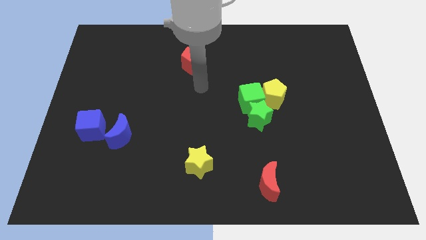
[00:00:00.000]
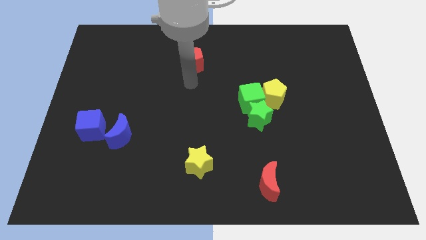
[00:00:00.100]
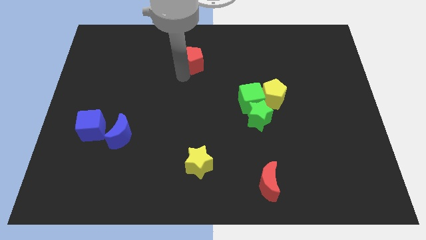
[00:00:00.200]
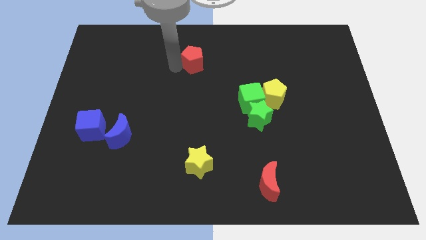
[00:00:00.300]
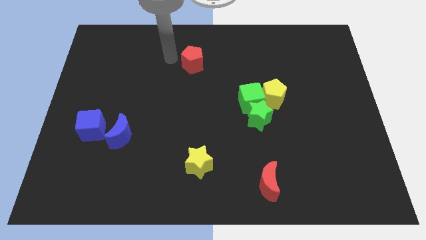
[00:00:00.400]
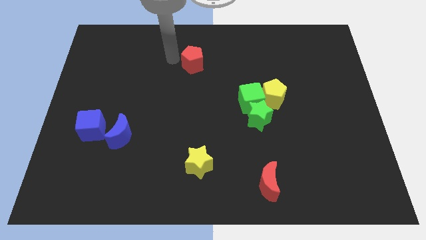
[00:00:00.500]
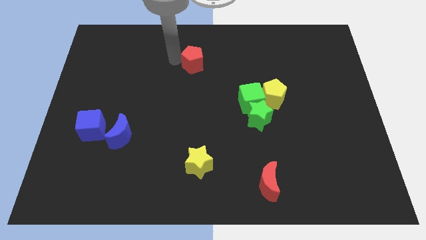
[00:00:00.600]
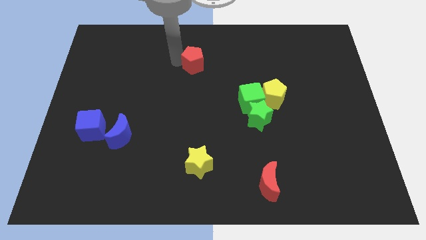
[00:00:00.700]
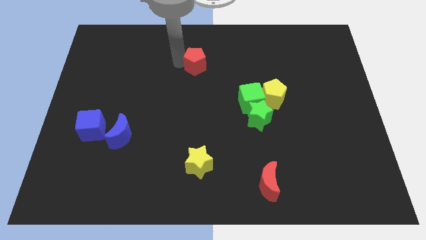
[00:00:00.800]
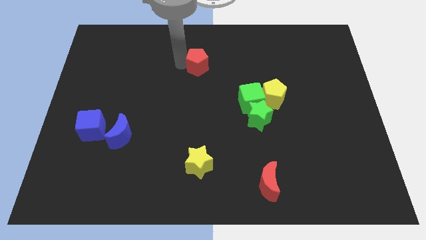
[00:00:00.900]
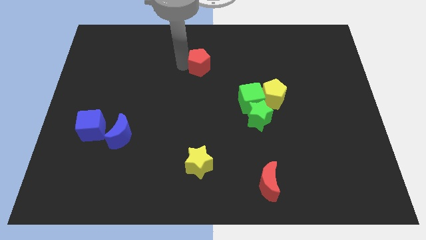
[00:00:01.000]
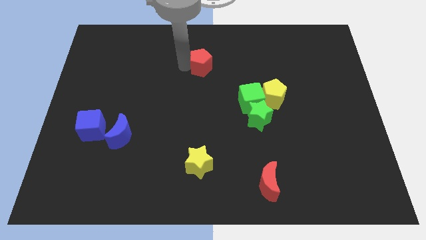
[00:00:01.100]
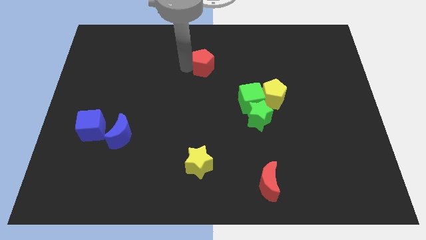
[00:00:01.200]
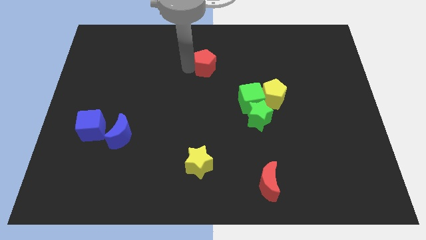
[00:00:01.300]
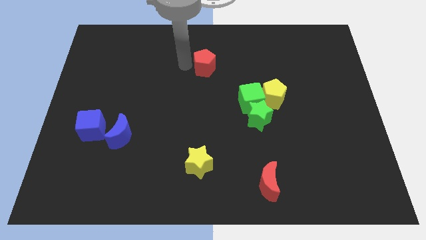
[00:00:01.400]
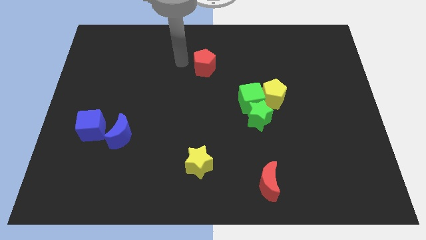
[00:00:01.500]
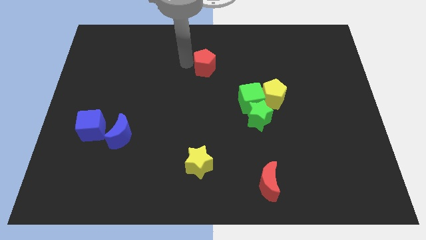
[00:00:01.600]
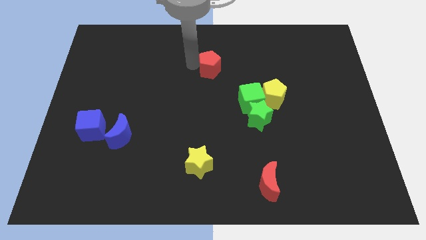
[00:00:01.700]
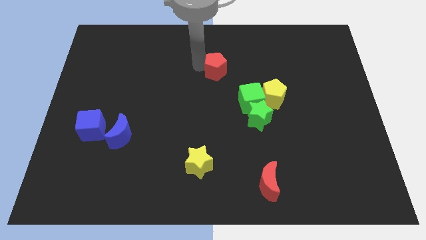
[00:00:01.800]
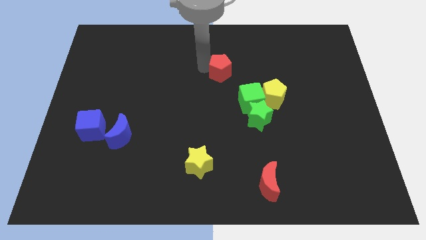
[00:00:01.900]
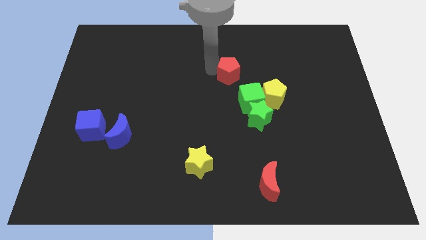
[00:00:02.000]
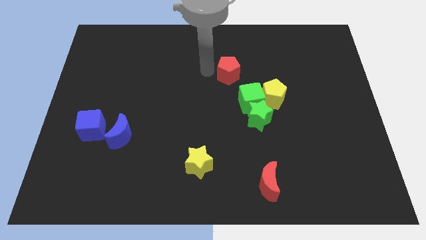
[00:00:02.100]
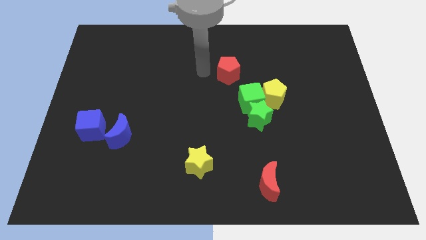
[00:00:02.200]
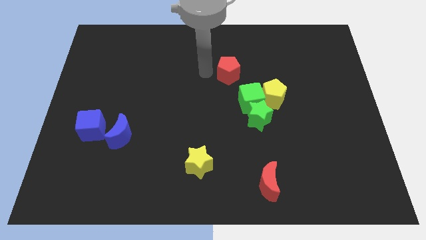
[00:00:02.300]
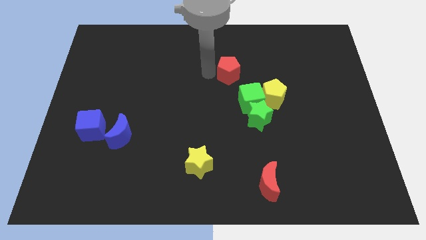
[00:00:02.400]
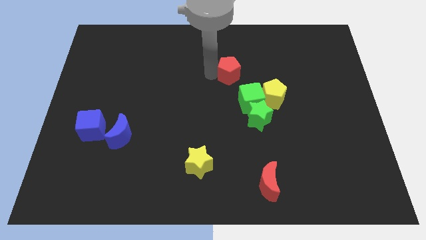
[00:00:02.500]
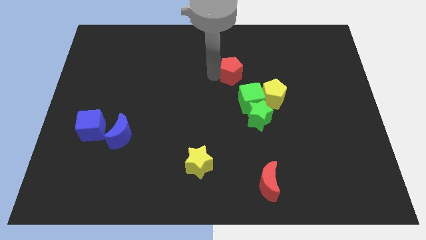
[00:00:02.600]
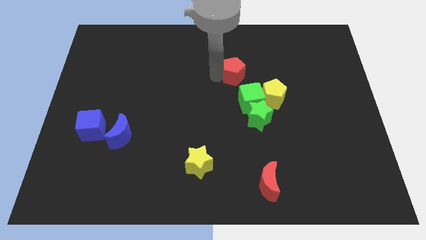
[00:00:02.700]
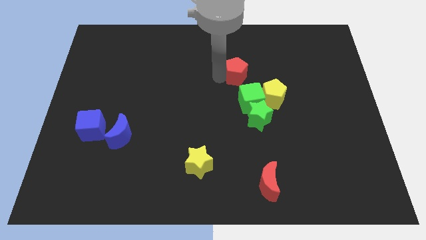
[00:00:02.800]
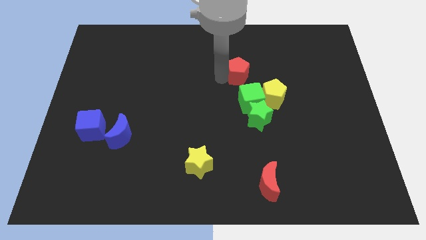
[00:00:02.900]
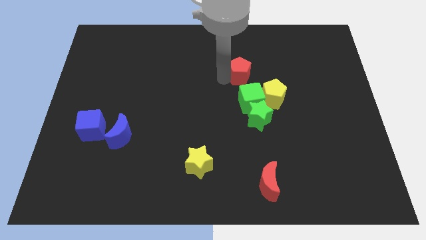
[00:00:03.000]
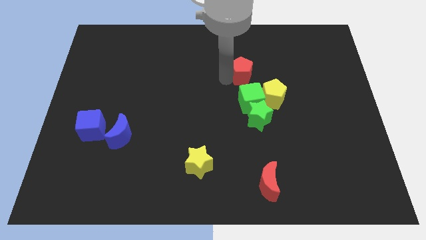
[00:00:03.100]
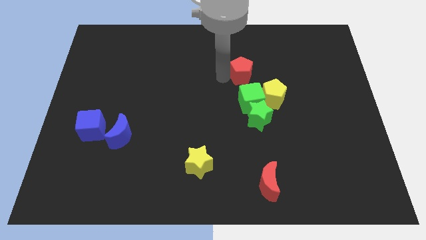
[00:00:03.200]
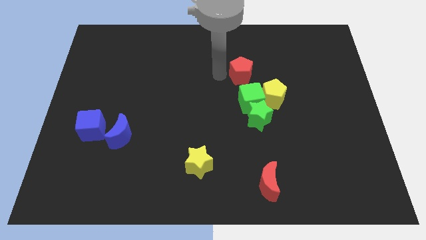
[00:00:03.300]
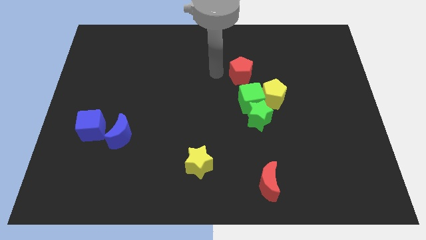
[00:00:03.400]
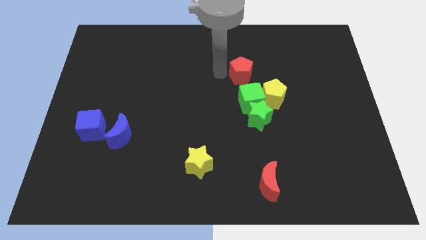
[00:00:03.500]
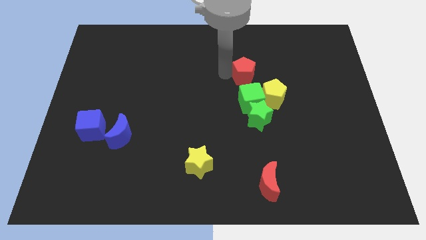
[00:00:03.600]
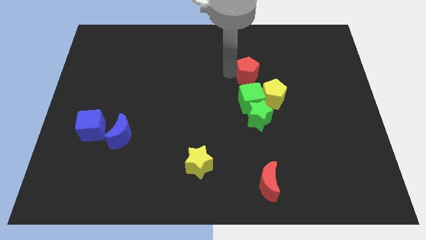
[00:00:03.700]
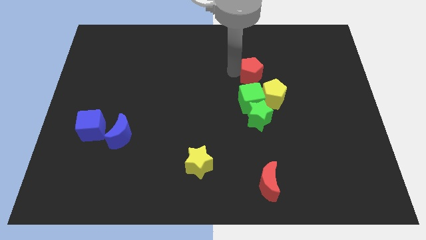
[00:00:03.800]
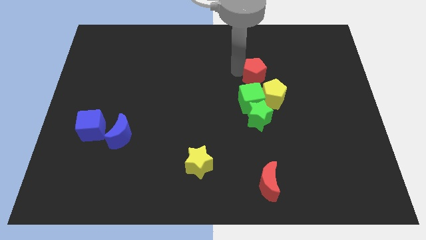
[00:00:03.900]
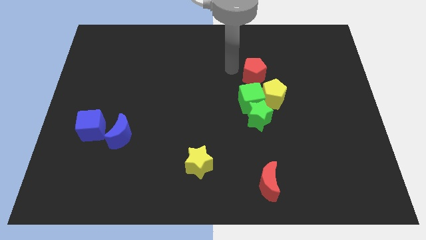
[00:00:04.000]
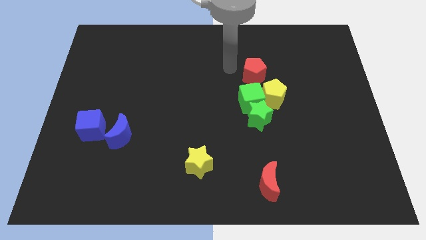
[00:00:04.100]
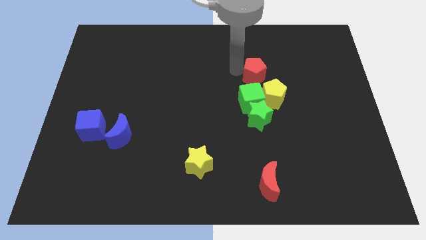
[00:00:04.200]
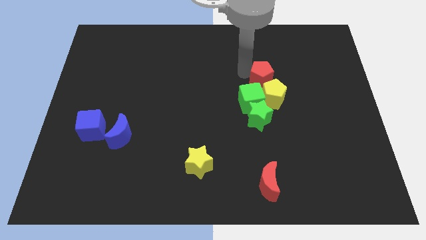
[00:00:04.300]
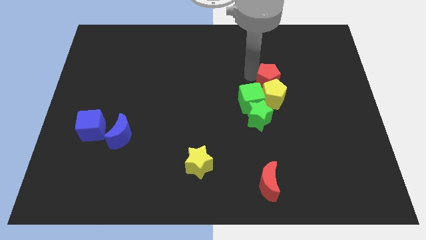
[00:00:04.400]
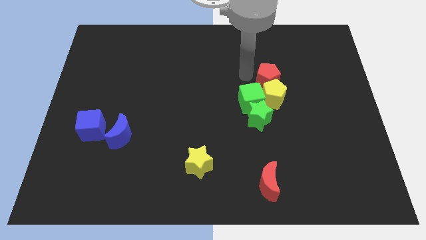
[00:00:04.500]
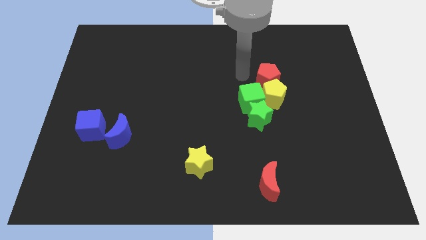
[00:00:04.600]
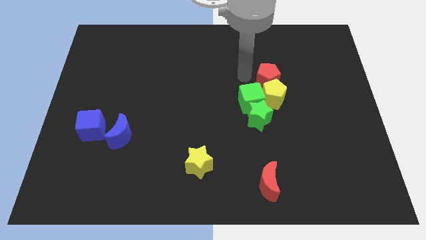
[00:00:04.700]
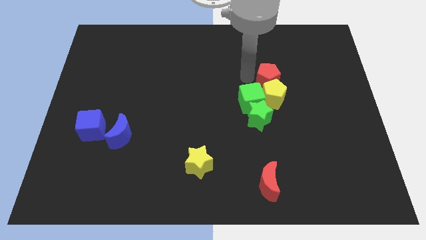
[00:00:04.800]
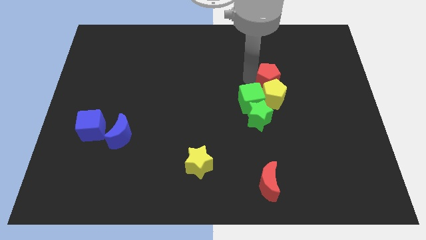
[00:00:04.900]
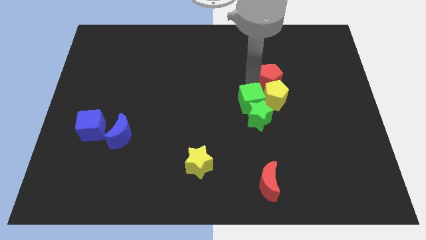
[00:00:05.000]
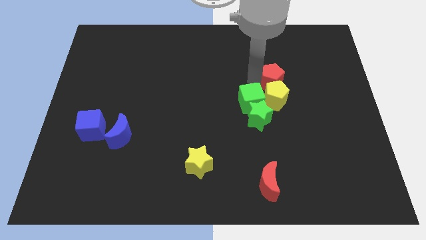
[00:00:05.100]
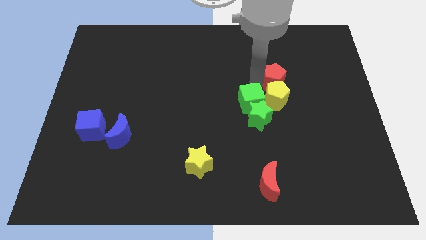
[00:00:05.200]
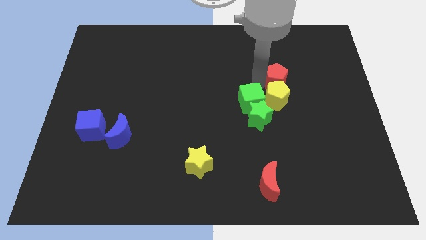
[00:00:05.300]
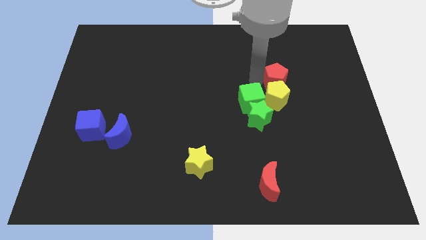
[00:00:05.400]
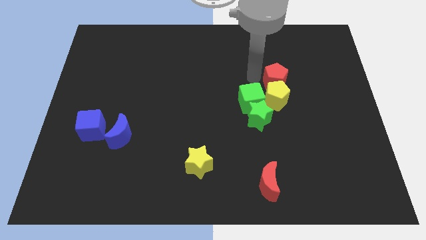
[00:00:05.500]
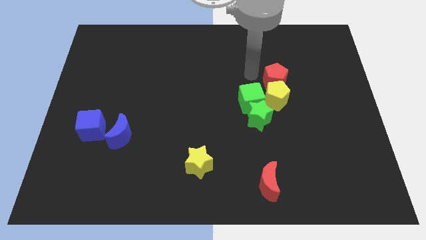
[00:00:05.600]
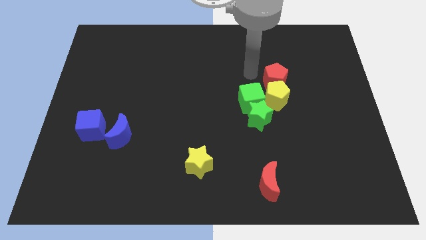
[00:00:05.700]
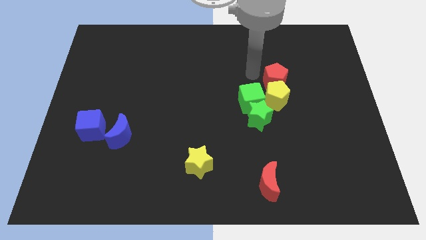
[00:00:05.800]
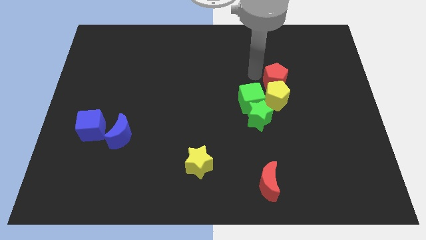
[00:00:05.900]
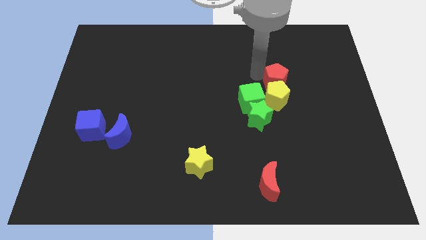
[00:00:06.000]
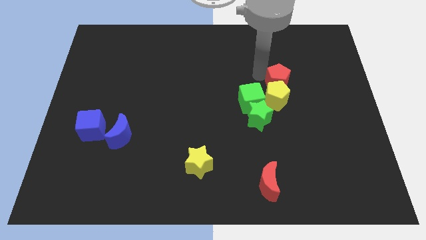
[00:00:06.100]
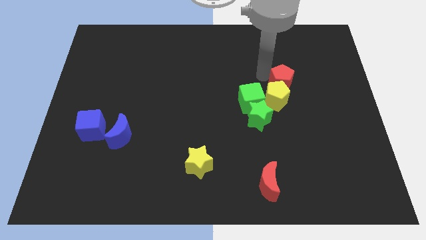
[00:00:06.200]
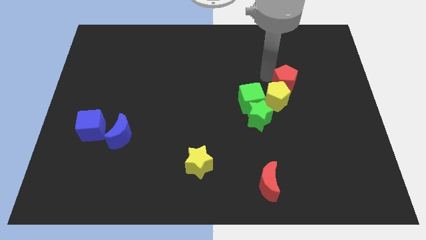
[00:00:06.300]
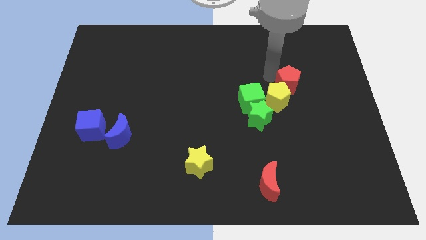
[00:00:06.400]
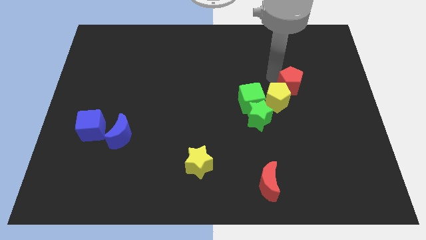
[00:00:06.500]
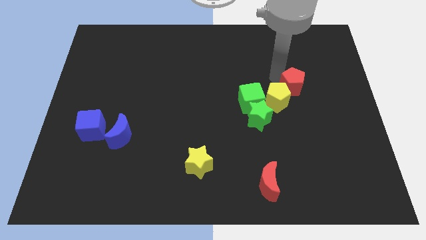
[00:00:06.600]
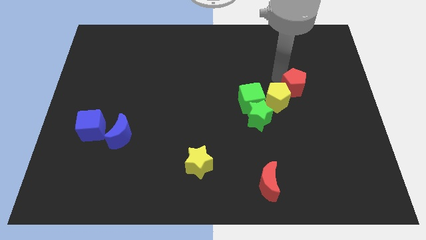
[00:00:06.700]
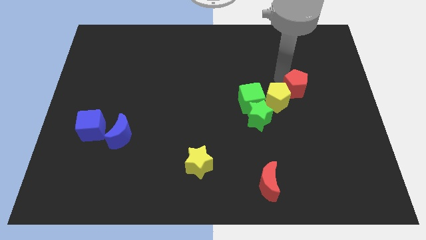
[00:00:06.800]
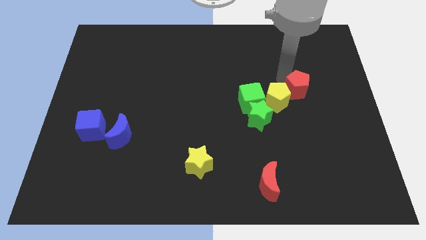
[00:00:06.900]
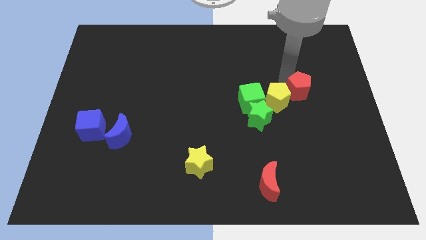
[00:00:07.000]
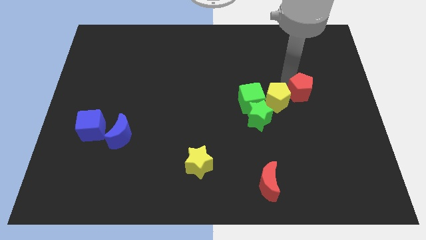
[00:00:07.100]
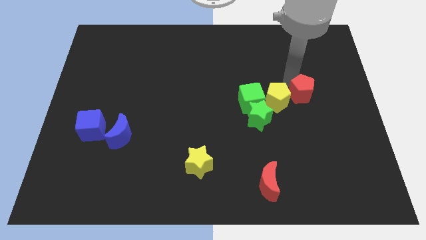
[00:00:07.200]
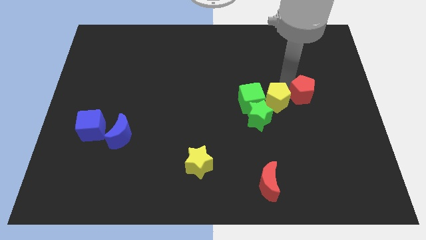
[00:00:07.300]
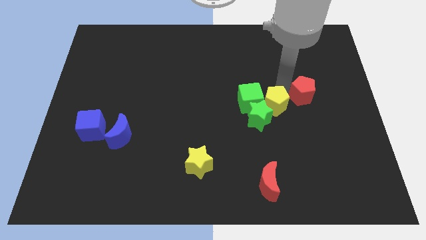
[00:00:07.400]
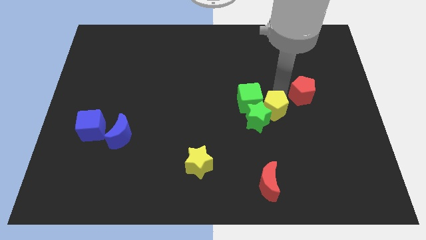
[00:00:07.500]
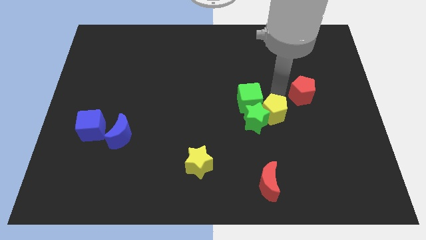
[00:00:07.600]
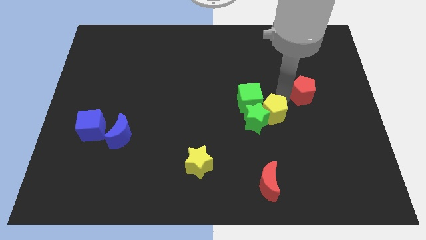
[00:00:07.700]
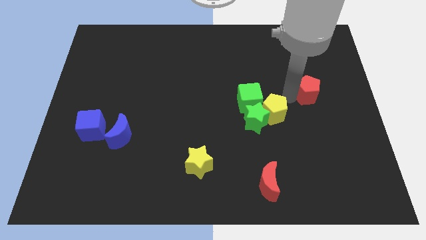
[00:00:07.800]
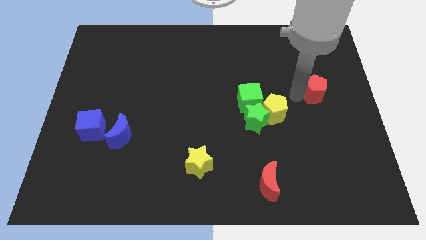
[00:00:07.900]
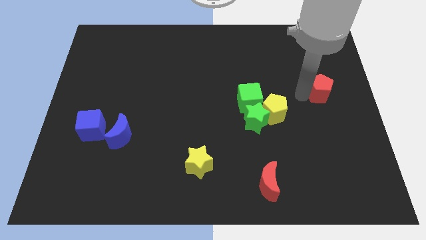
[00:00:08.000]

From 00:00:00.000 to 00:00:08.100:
put the red pentagon to the center right
